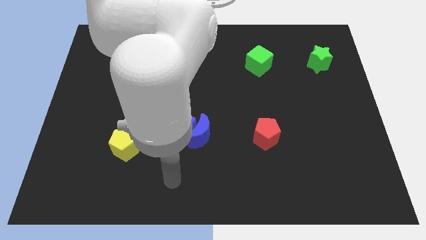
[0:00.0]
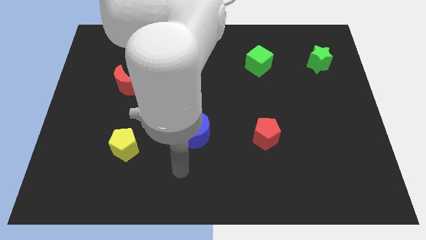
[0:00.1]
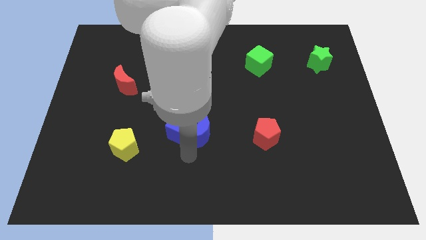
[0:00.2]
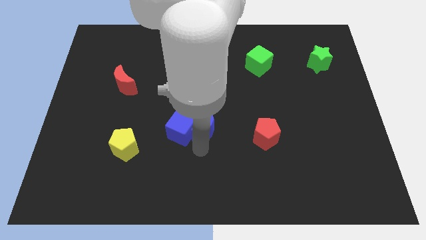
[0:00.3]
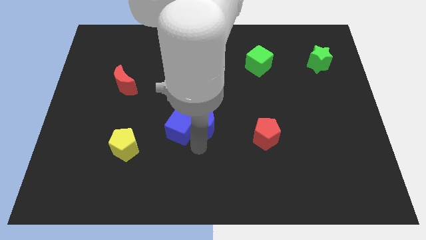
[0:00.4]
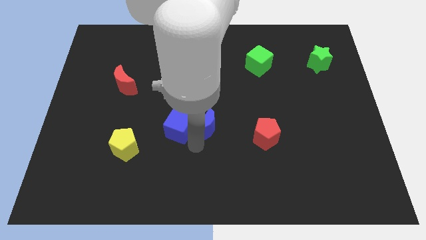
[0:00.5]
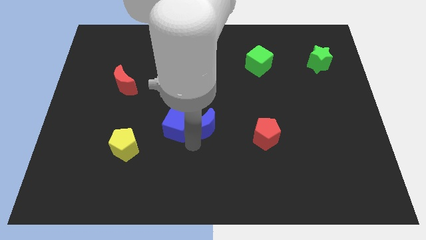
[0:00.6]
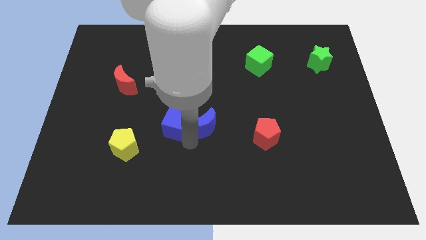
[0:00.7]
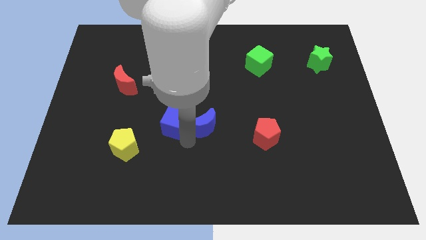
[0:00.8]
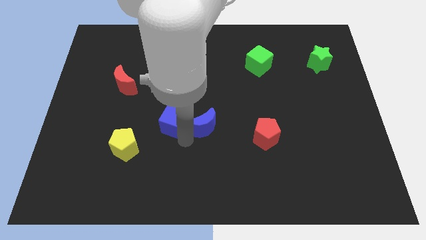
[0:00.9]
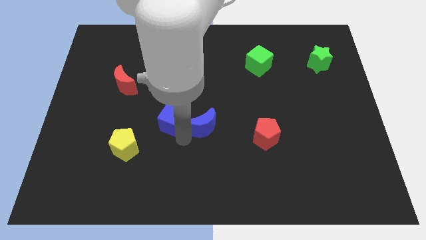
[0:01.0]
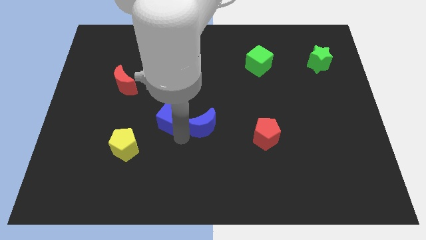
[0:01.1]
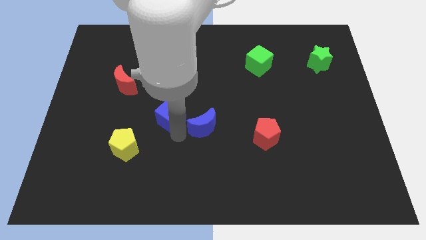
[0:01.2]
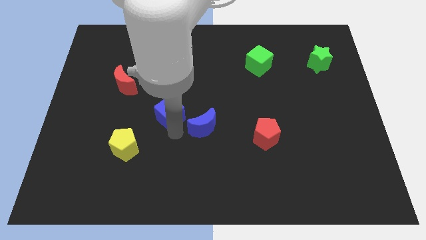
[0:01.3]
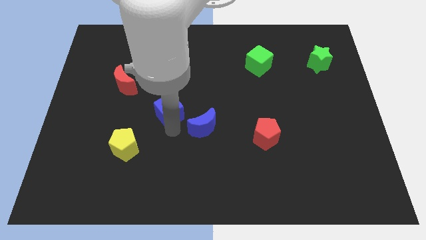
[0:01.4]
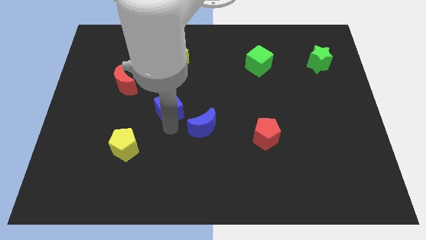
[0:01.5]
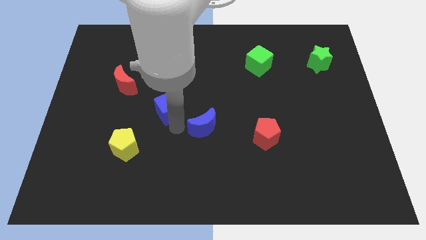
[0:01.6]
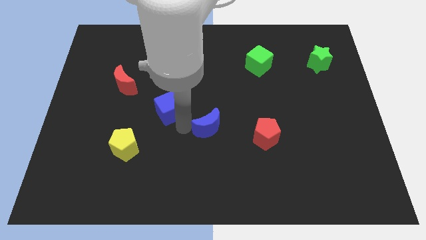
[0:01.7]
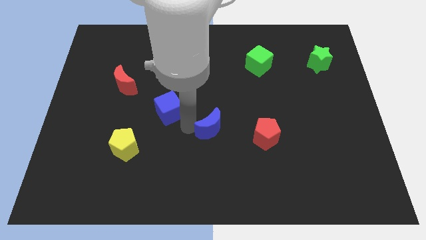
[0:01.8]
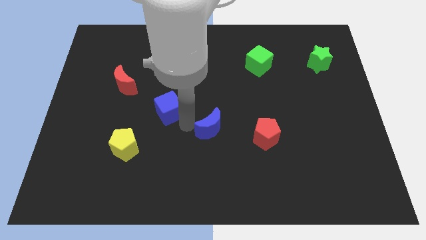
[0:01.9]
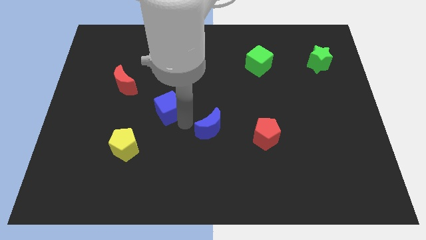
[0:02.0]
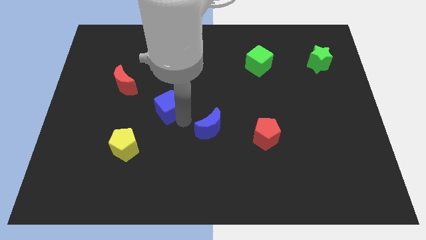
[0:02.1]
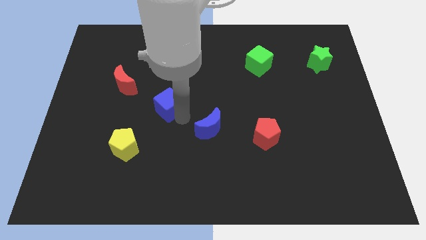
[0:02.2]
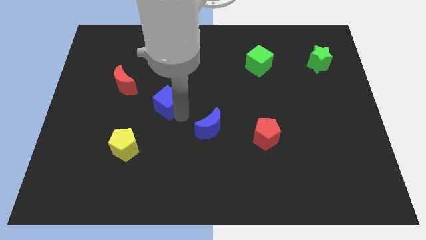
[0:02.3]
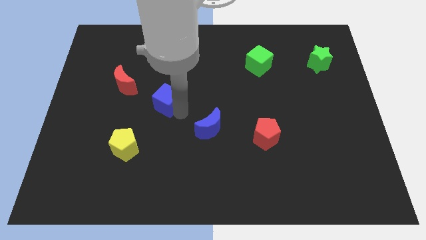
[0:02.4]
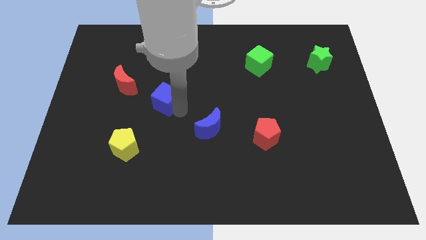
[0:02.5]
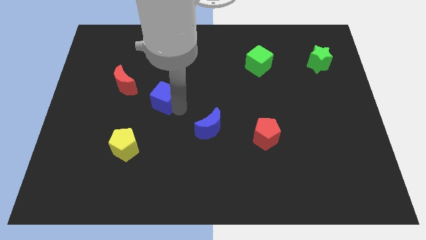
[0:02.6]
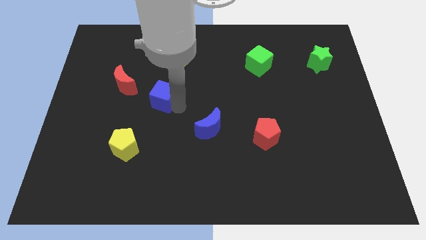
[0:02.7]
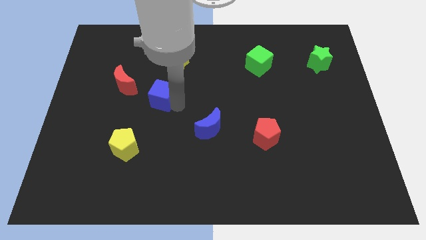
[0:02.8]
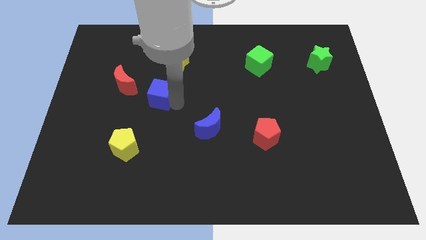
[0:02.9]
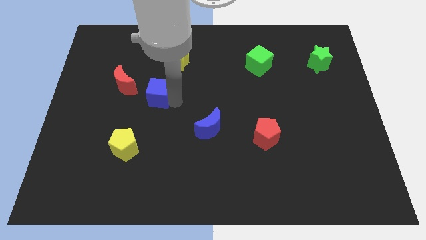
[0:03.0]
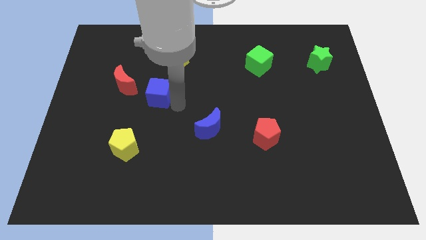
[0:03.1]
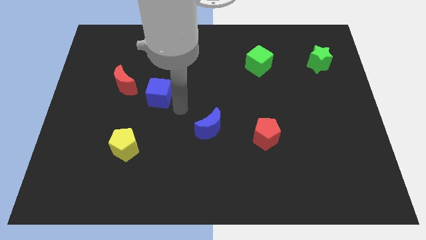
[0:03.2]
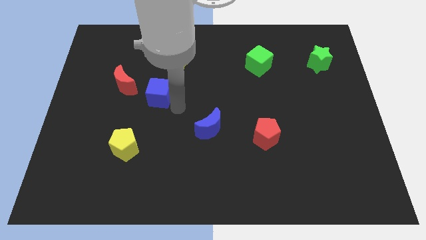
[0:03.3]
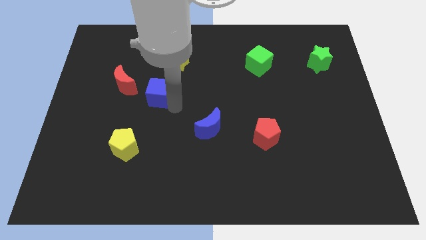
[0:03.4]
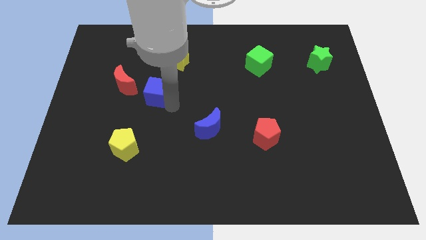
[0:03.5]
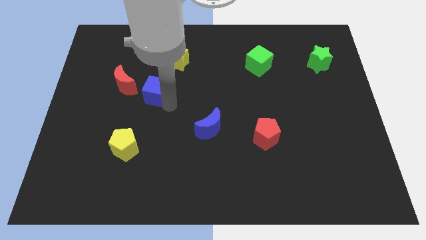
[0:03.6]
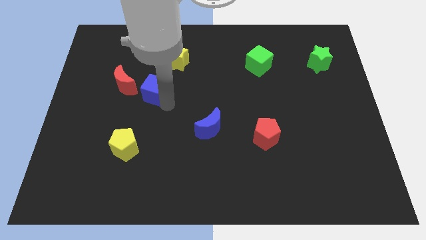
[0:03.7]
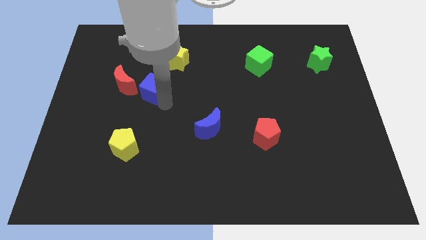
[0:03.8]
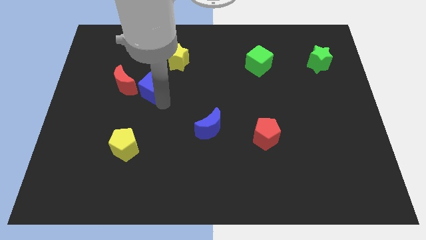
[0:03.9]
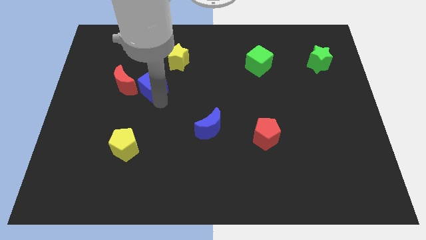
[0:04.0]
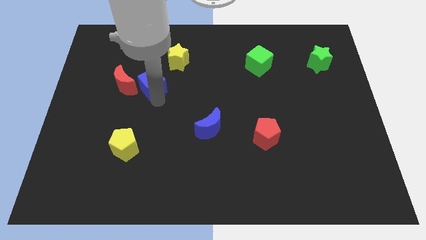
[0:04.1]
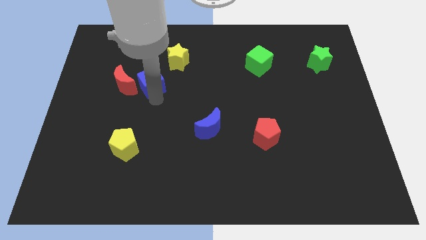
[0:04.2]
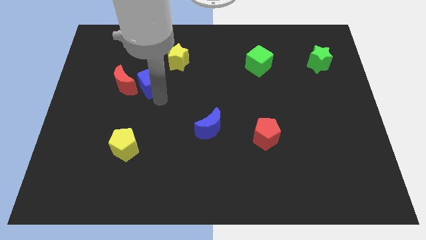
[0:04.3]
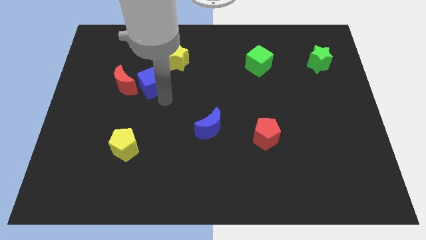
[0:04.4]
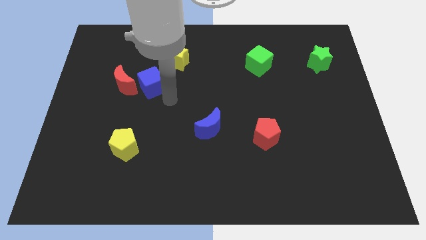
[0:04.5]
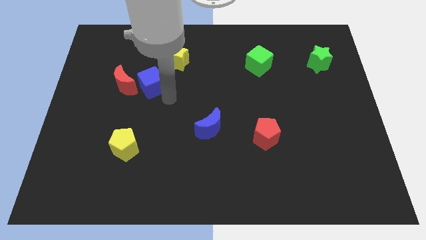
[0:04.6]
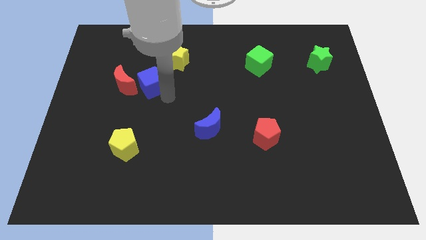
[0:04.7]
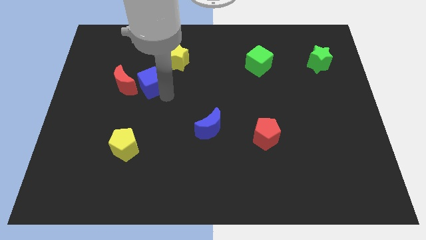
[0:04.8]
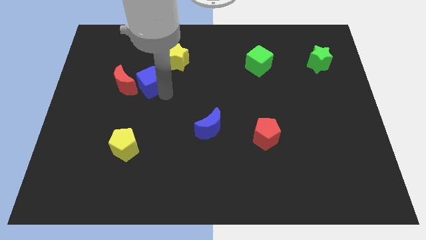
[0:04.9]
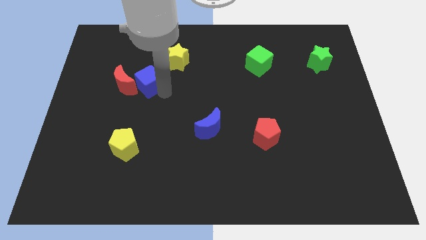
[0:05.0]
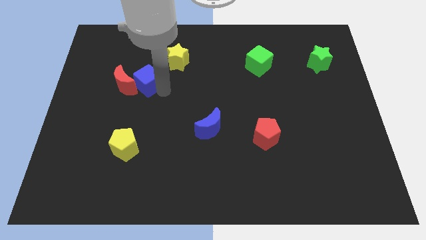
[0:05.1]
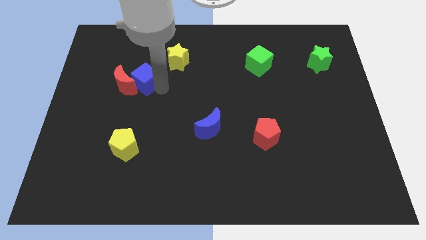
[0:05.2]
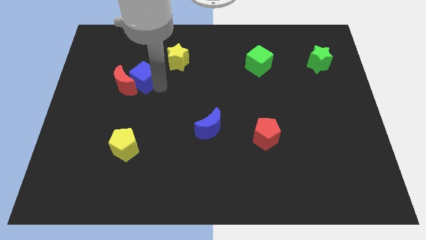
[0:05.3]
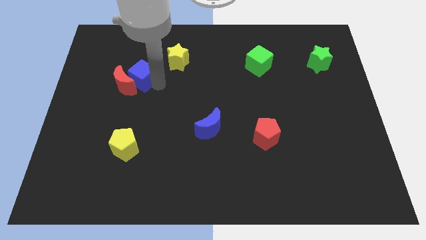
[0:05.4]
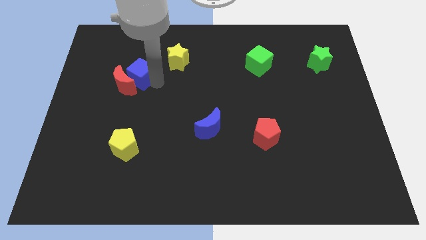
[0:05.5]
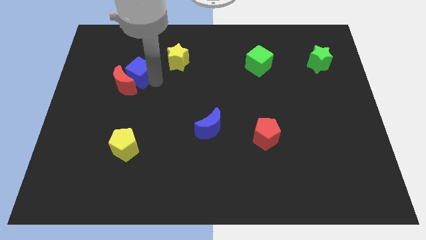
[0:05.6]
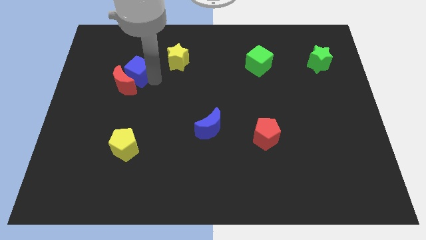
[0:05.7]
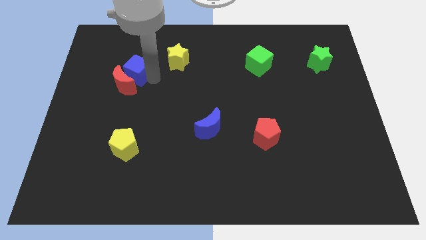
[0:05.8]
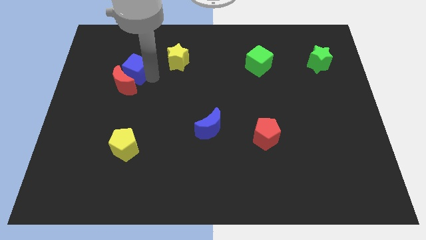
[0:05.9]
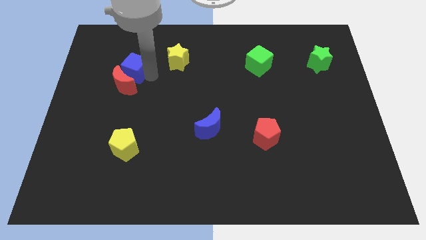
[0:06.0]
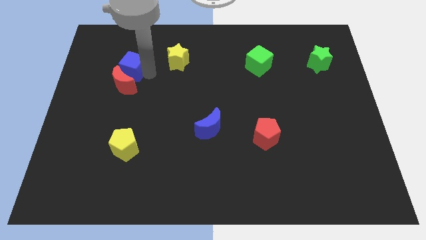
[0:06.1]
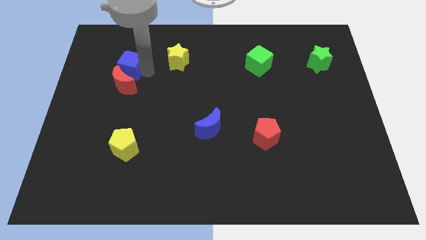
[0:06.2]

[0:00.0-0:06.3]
slide the blue cube to the top left side of the red moon
